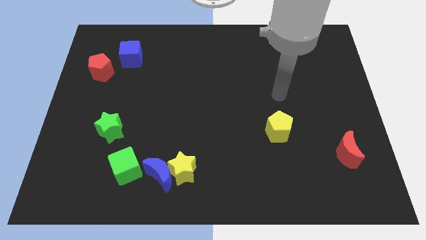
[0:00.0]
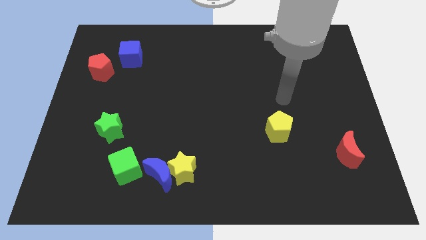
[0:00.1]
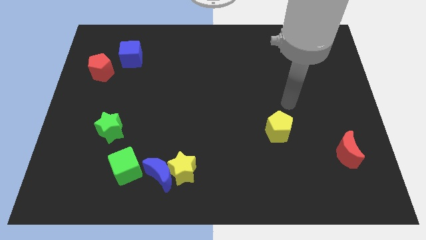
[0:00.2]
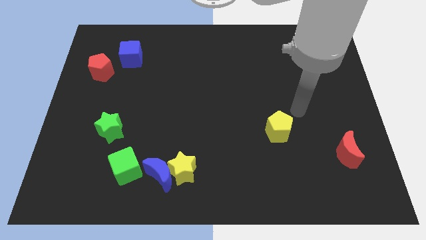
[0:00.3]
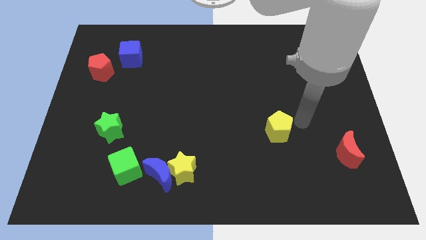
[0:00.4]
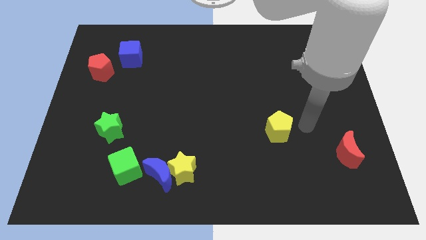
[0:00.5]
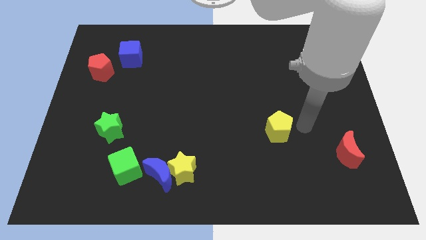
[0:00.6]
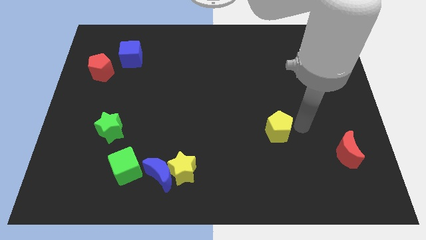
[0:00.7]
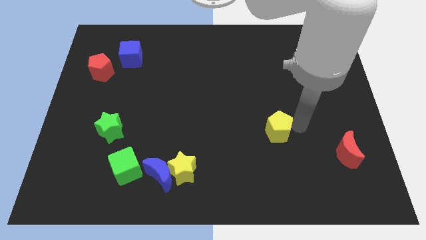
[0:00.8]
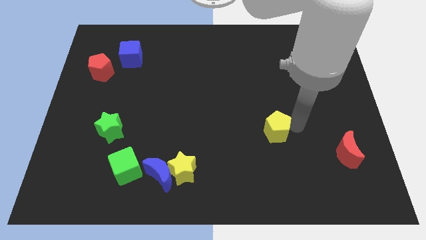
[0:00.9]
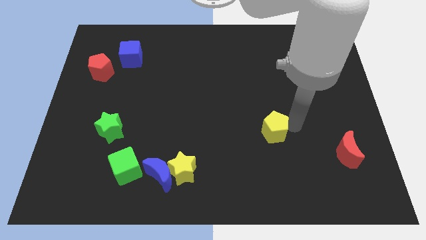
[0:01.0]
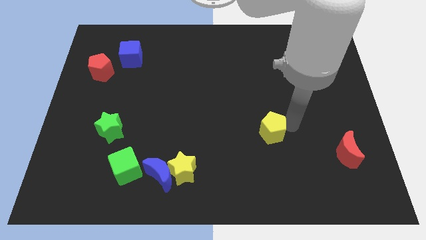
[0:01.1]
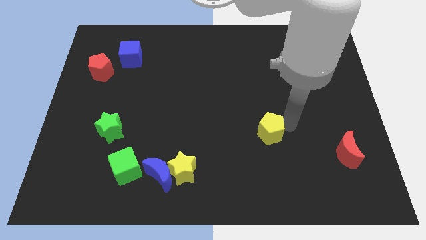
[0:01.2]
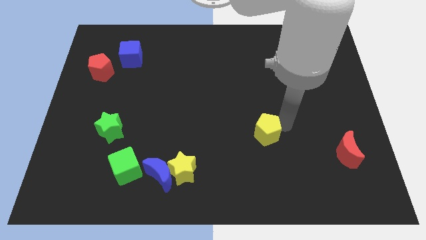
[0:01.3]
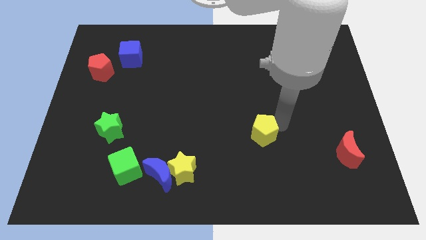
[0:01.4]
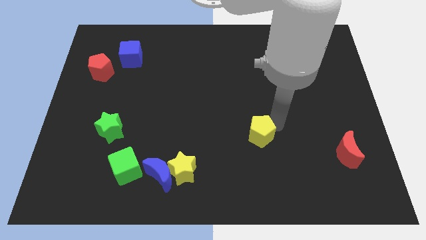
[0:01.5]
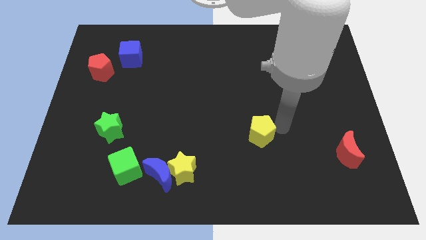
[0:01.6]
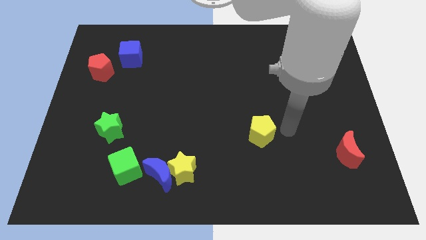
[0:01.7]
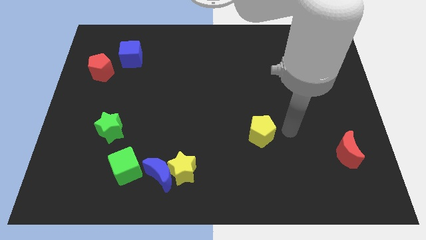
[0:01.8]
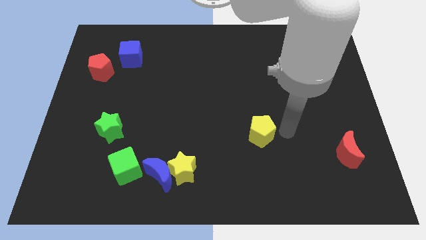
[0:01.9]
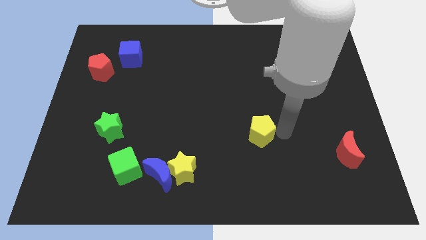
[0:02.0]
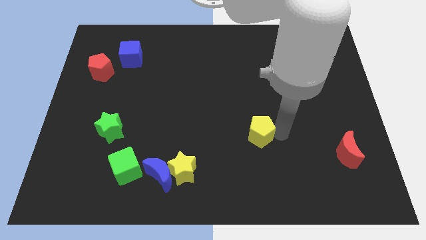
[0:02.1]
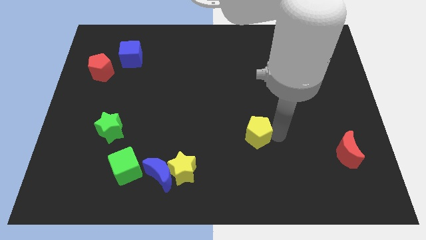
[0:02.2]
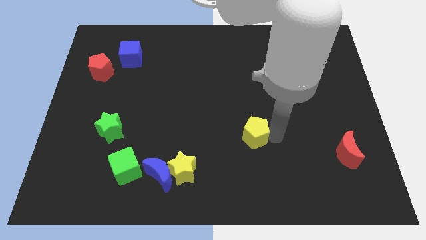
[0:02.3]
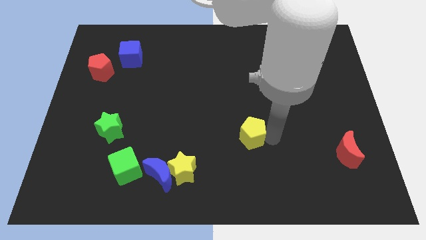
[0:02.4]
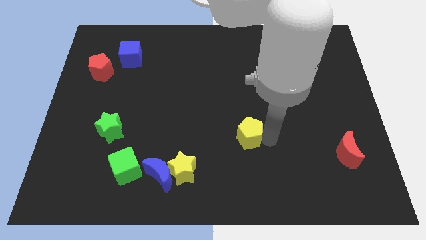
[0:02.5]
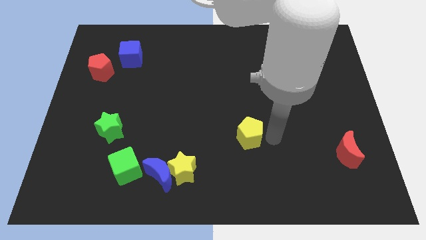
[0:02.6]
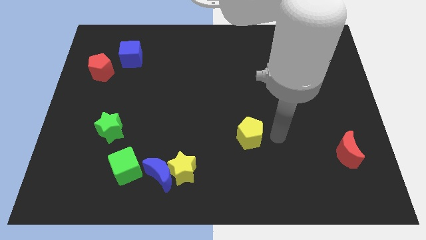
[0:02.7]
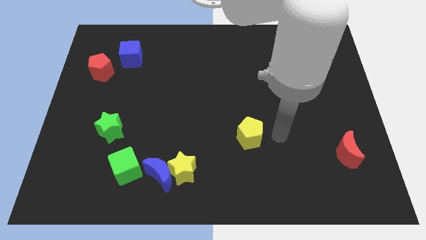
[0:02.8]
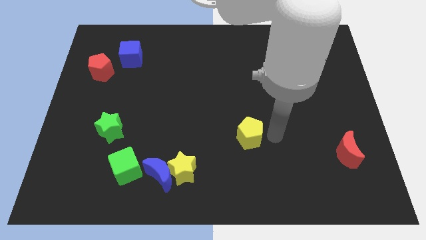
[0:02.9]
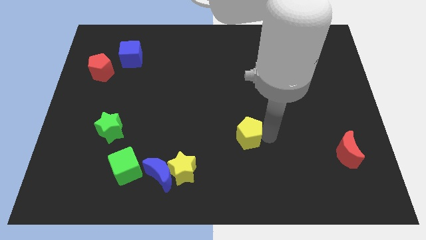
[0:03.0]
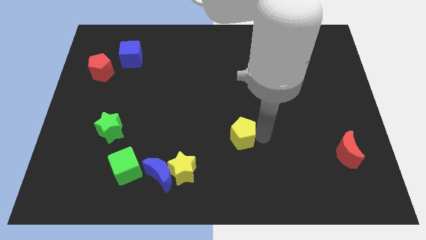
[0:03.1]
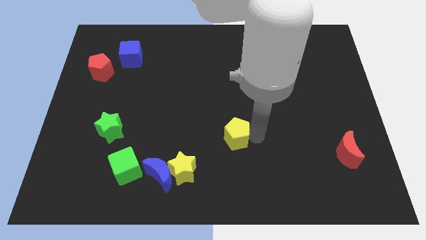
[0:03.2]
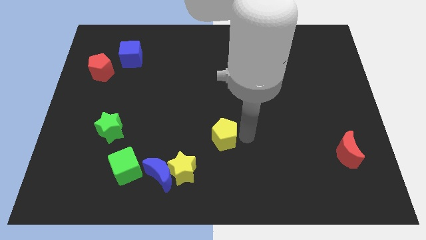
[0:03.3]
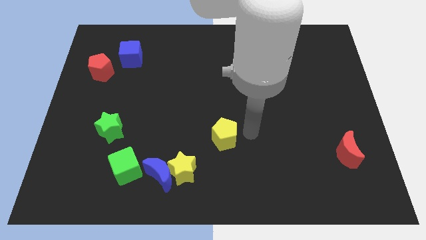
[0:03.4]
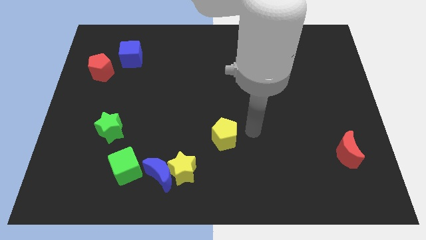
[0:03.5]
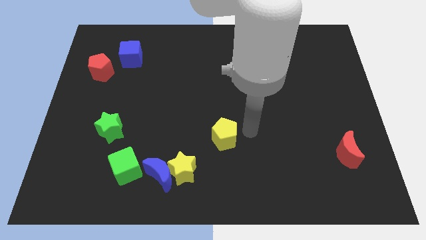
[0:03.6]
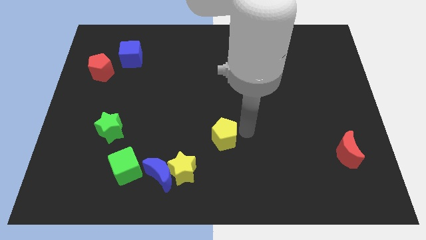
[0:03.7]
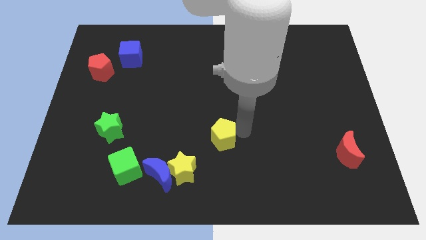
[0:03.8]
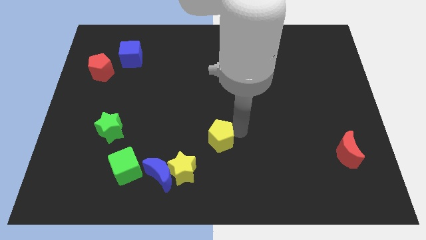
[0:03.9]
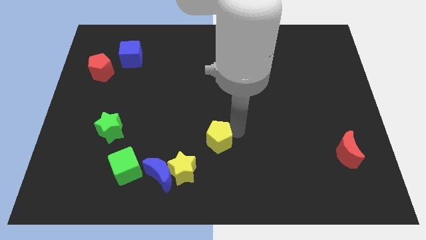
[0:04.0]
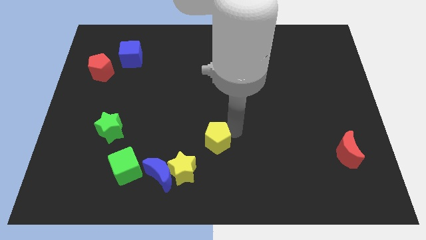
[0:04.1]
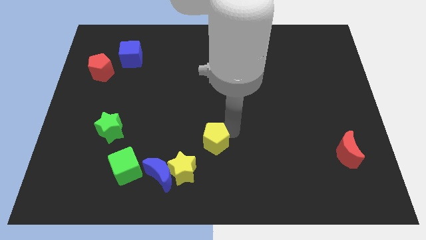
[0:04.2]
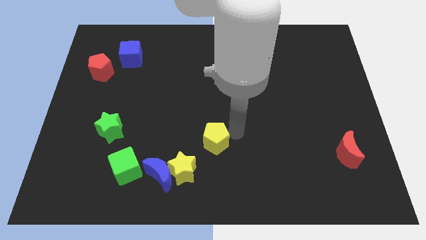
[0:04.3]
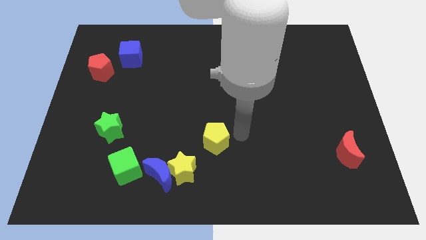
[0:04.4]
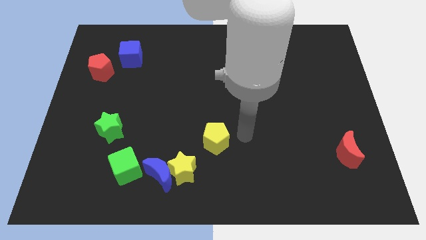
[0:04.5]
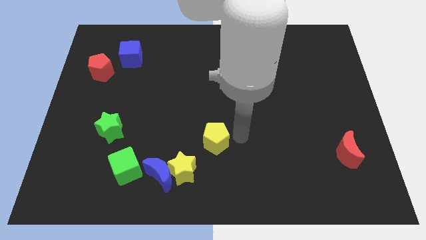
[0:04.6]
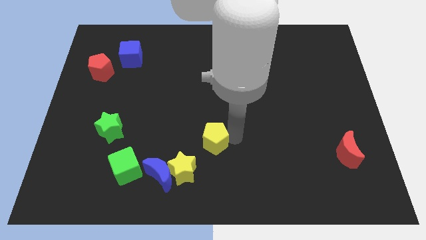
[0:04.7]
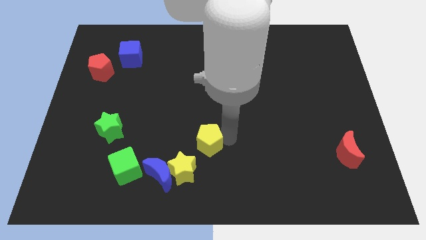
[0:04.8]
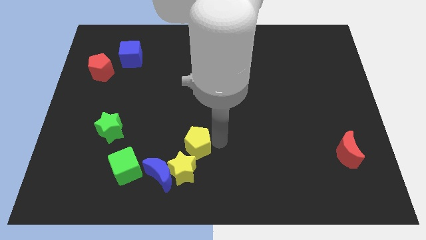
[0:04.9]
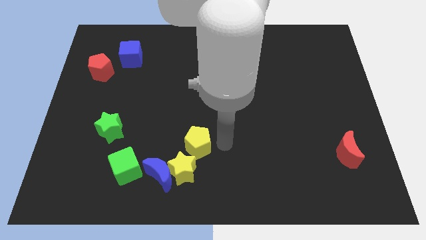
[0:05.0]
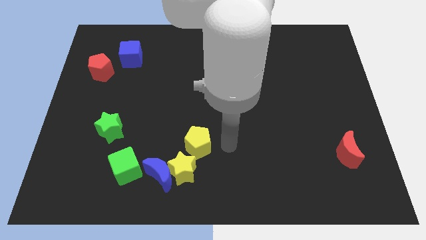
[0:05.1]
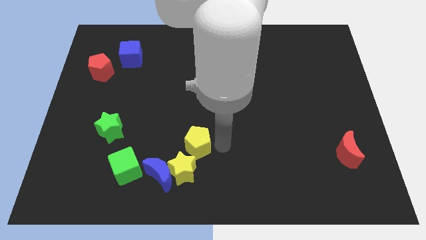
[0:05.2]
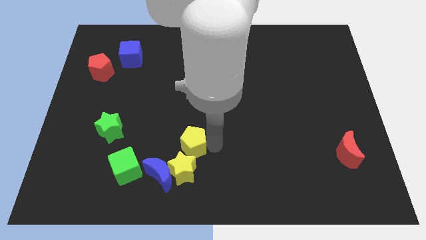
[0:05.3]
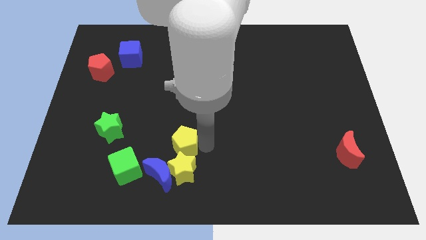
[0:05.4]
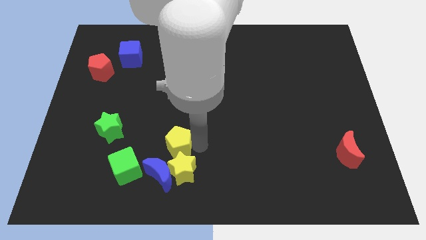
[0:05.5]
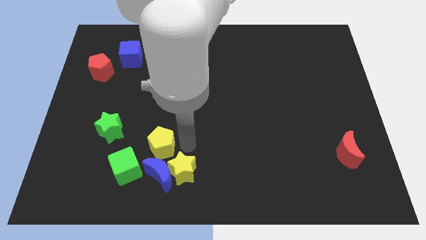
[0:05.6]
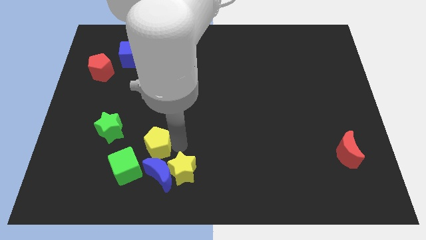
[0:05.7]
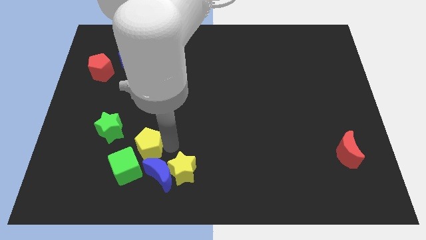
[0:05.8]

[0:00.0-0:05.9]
put the yellow pentagon to the bottom right of the green star

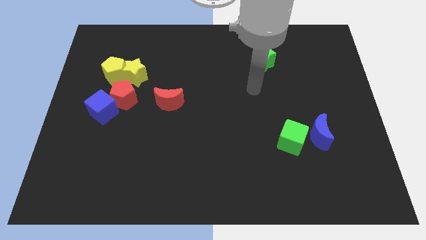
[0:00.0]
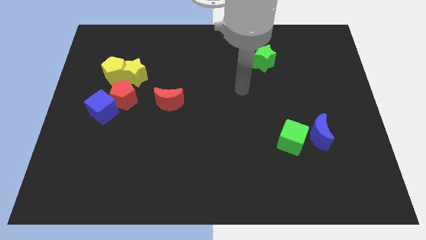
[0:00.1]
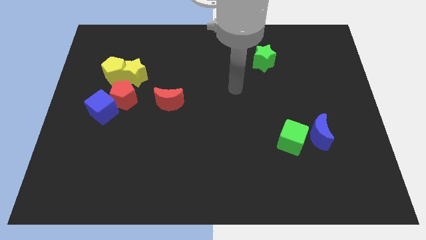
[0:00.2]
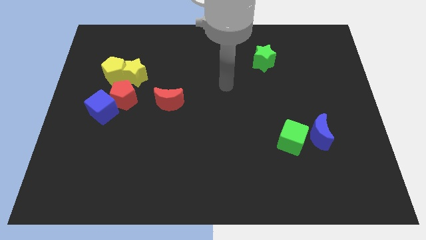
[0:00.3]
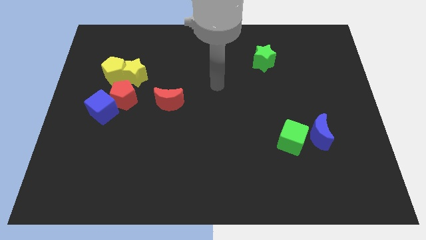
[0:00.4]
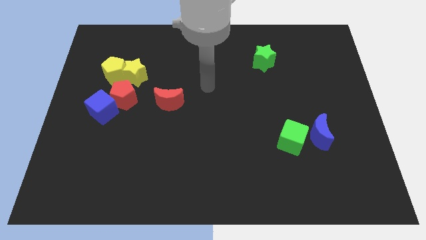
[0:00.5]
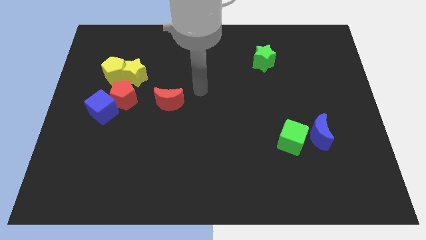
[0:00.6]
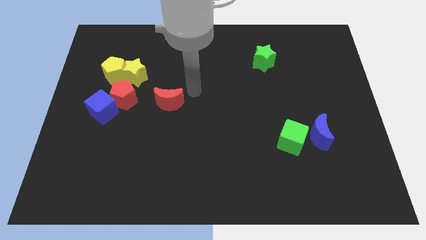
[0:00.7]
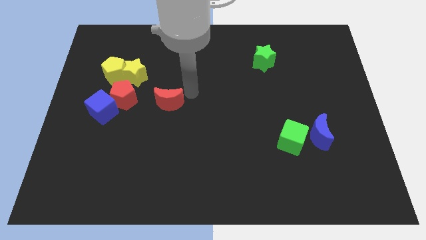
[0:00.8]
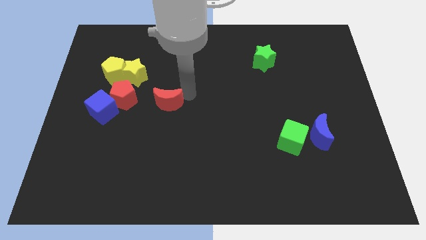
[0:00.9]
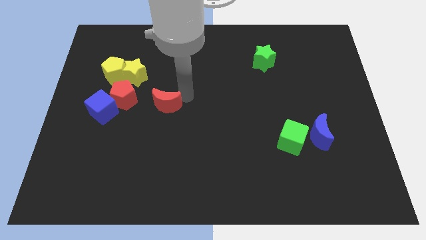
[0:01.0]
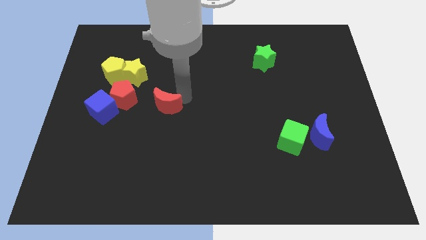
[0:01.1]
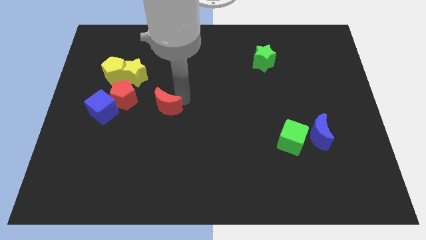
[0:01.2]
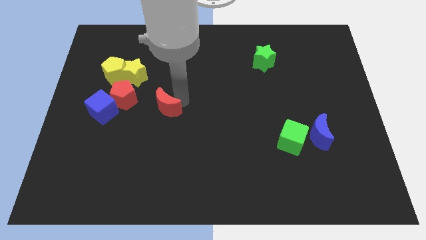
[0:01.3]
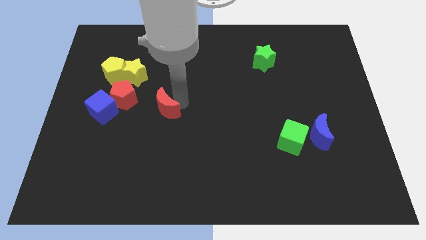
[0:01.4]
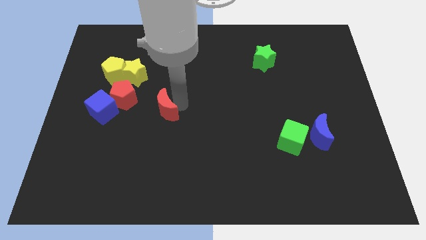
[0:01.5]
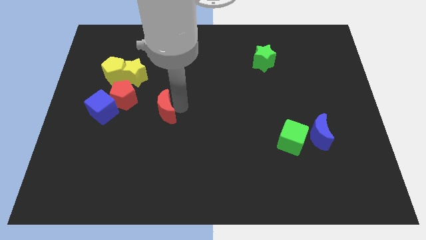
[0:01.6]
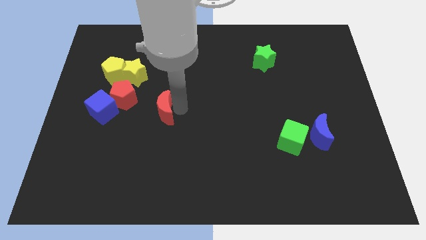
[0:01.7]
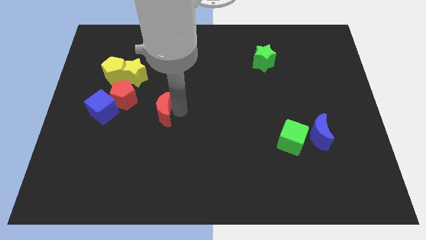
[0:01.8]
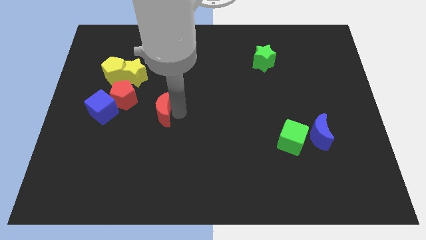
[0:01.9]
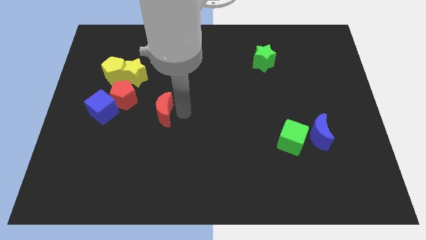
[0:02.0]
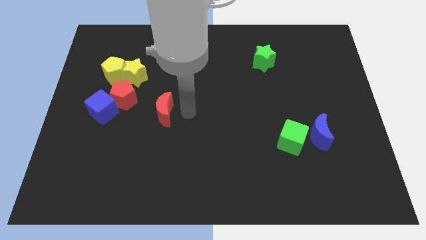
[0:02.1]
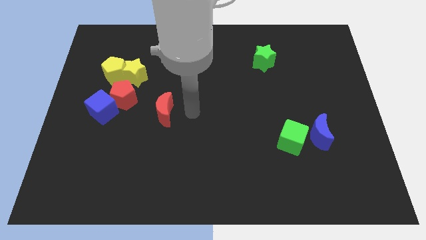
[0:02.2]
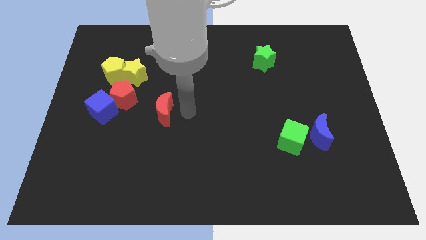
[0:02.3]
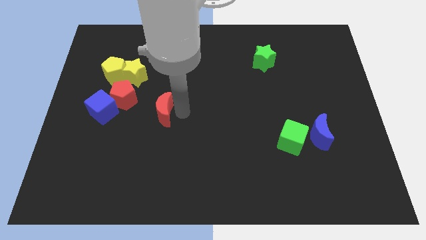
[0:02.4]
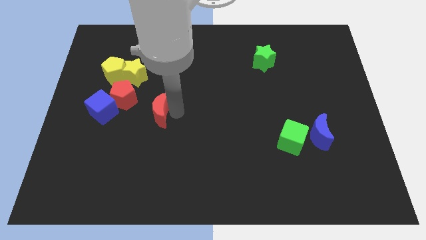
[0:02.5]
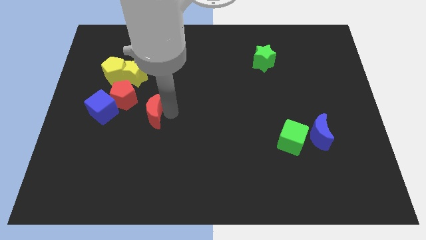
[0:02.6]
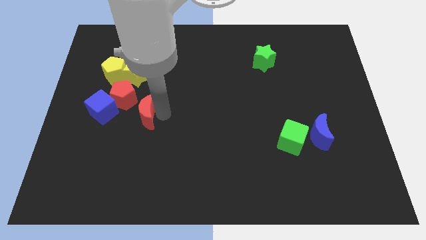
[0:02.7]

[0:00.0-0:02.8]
move the red moon to the bottom of the yellow star
